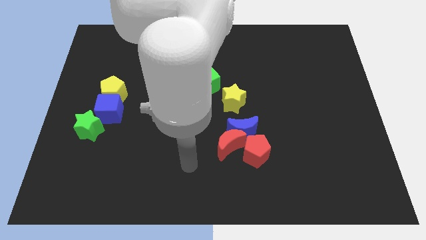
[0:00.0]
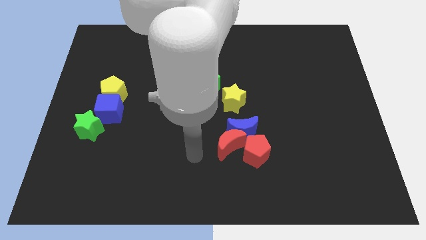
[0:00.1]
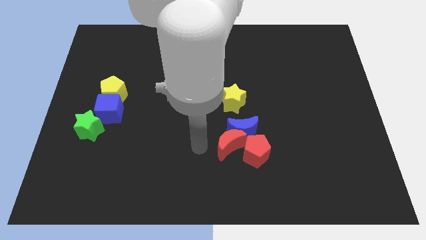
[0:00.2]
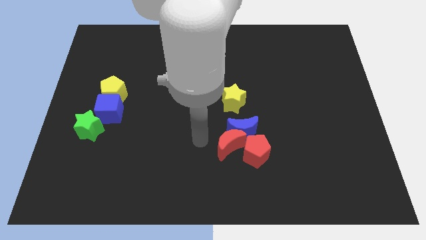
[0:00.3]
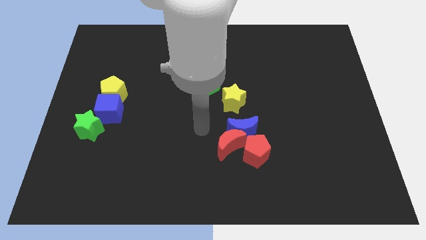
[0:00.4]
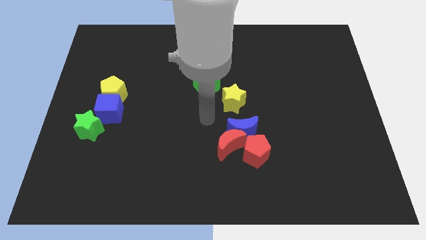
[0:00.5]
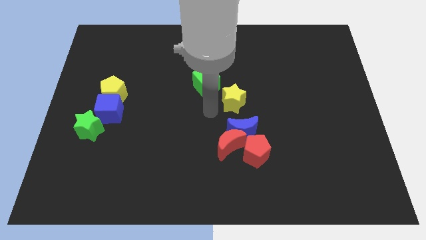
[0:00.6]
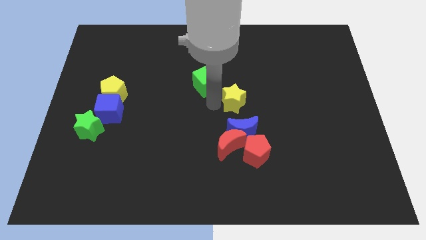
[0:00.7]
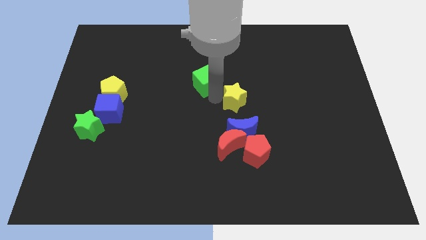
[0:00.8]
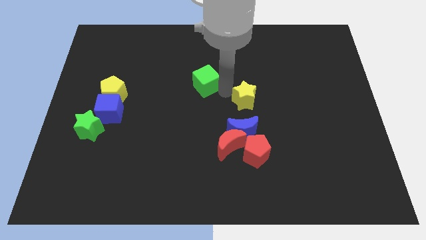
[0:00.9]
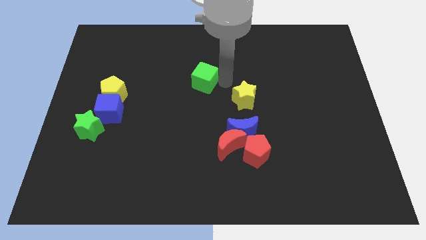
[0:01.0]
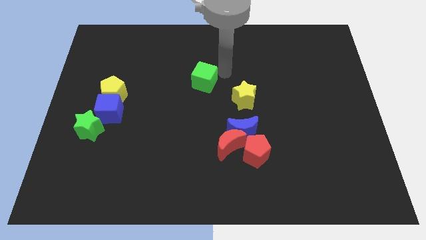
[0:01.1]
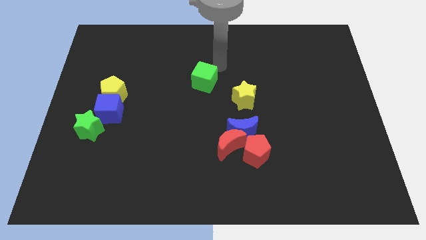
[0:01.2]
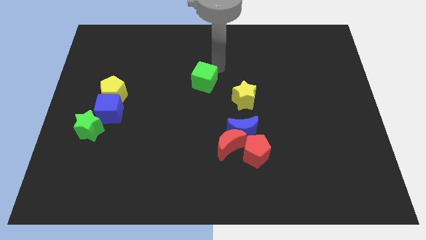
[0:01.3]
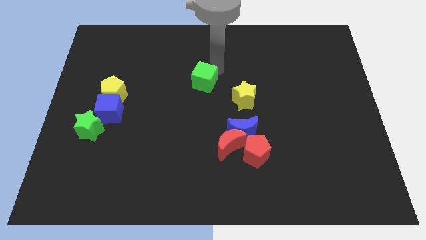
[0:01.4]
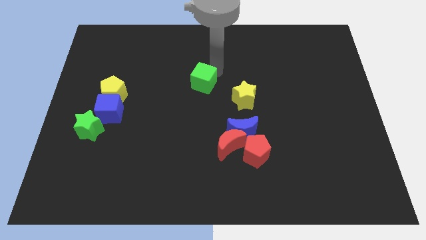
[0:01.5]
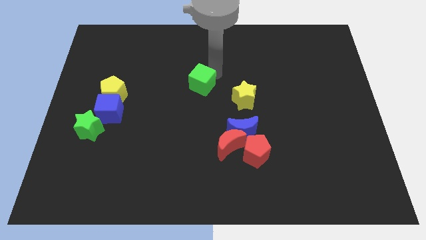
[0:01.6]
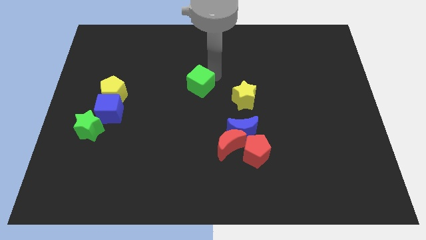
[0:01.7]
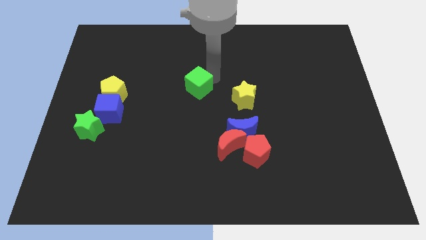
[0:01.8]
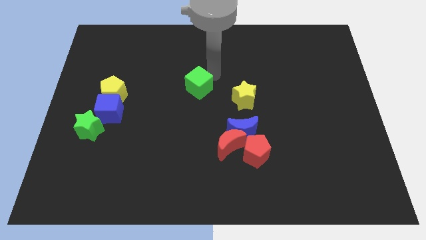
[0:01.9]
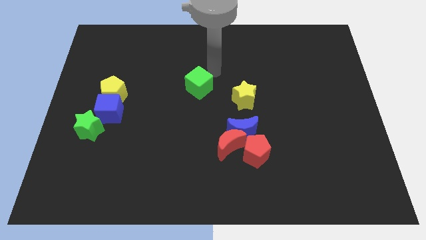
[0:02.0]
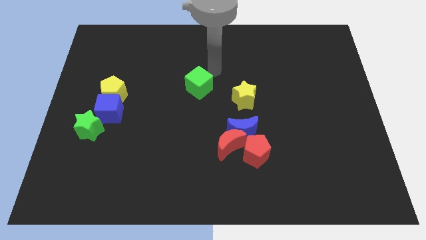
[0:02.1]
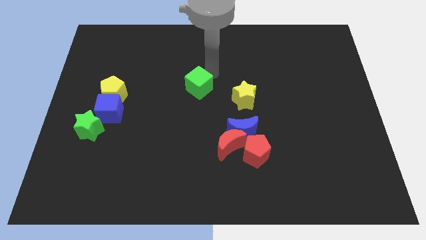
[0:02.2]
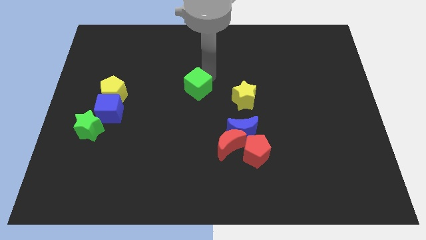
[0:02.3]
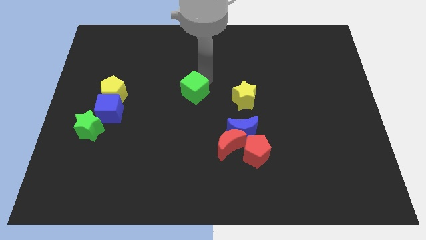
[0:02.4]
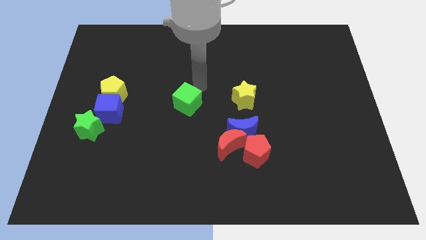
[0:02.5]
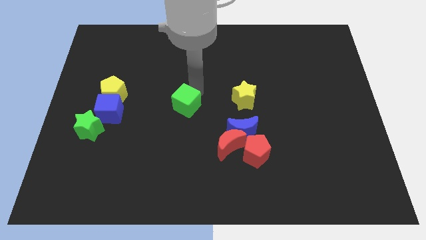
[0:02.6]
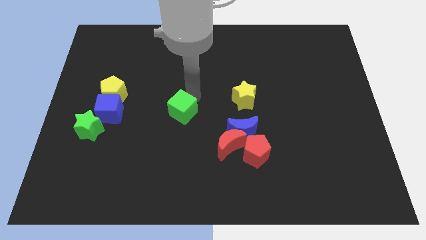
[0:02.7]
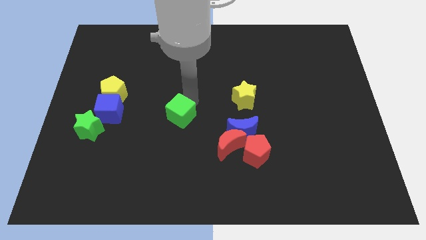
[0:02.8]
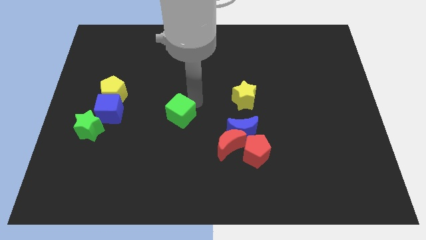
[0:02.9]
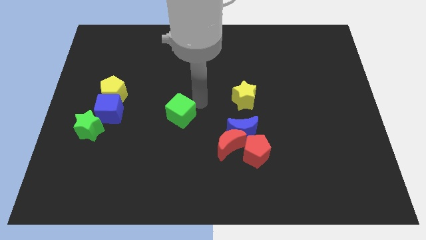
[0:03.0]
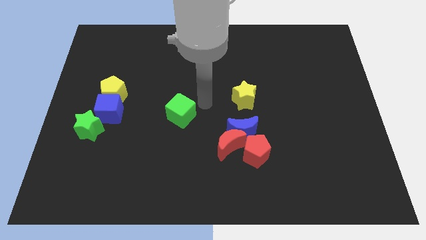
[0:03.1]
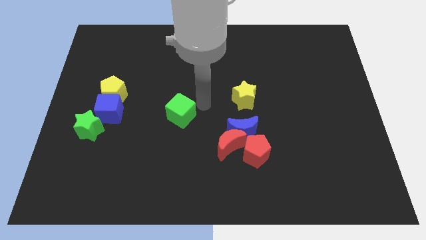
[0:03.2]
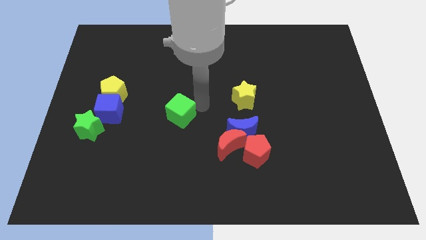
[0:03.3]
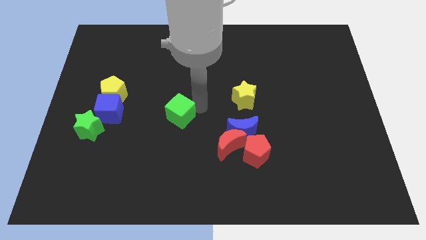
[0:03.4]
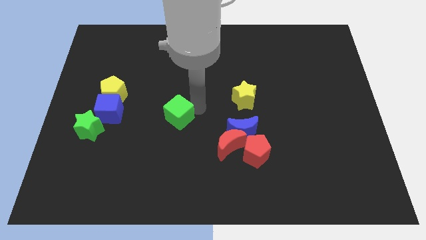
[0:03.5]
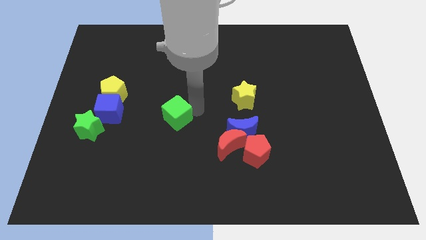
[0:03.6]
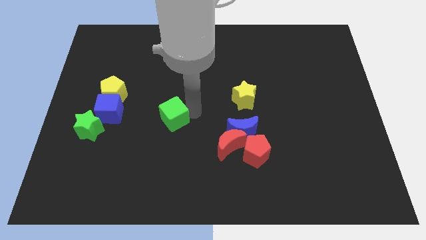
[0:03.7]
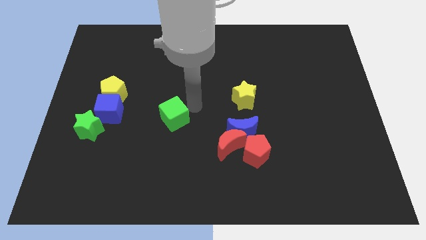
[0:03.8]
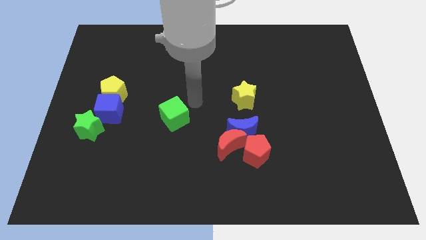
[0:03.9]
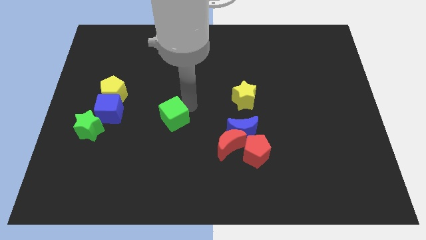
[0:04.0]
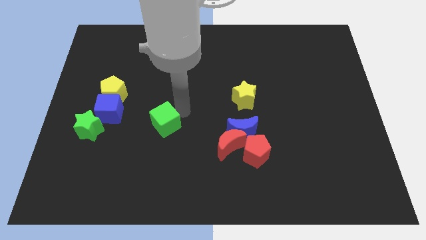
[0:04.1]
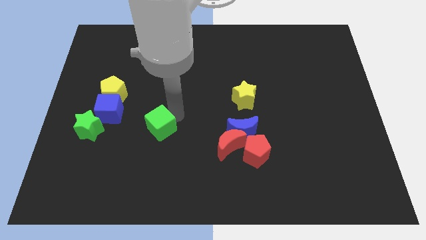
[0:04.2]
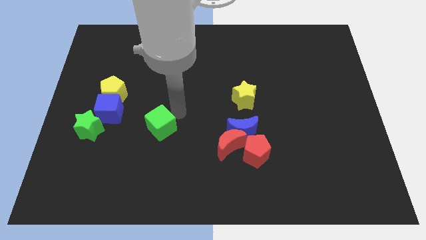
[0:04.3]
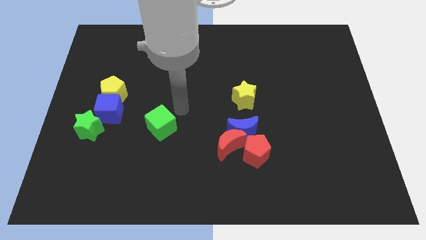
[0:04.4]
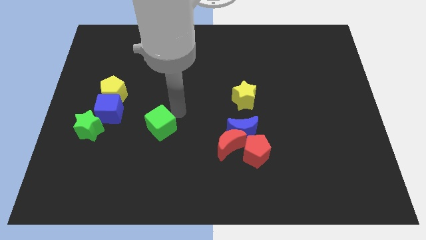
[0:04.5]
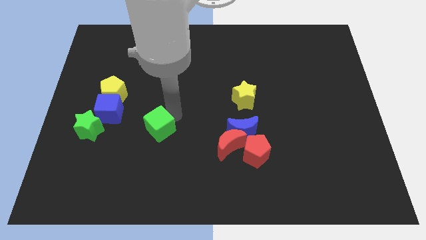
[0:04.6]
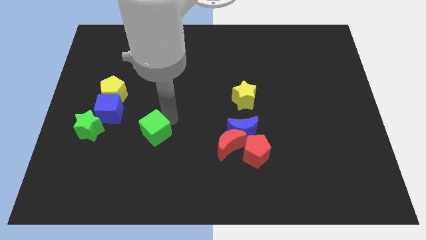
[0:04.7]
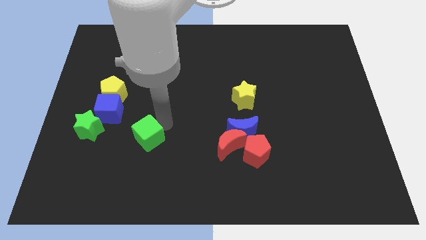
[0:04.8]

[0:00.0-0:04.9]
push the green cube diagonally down and left

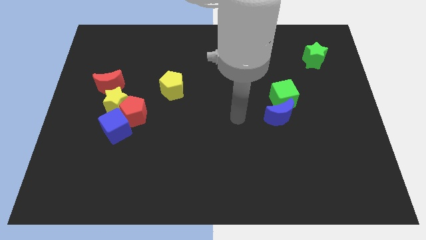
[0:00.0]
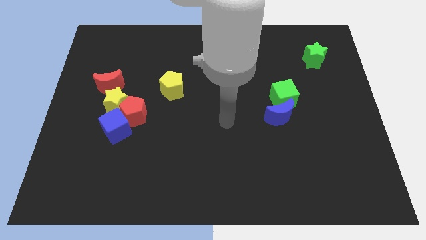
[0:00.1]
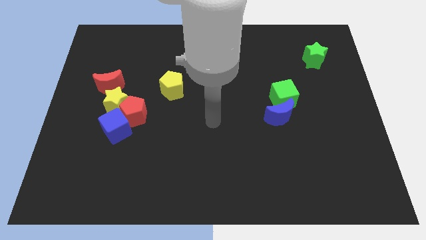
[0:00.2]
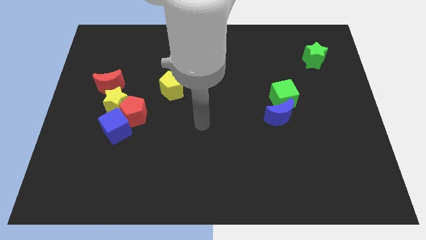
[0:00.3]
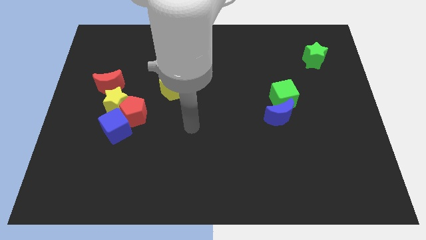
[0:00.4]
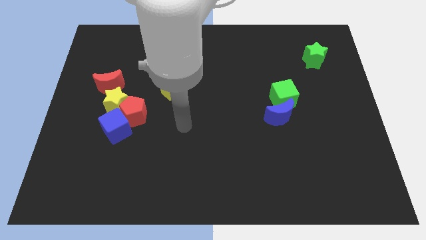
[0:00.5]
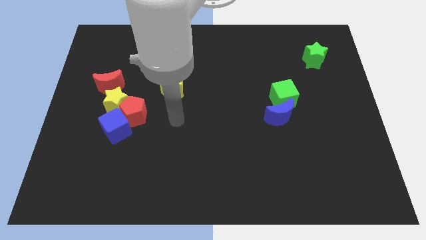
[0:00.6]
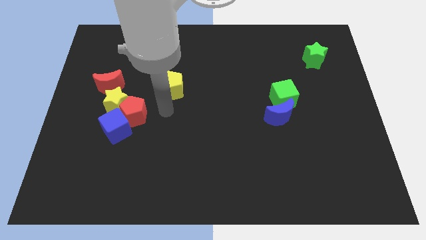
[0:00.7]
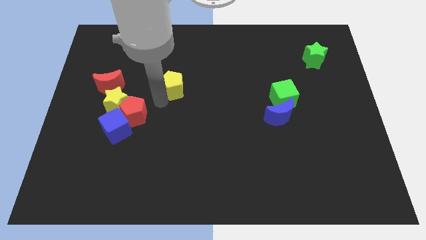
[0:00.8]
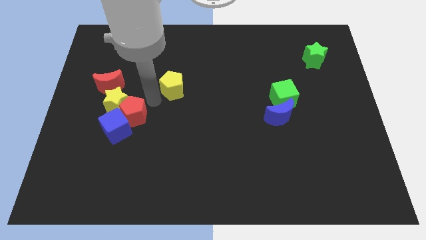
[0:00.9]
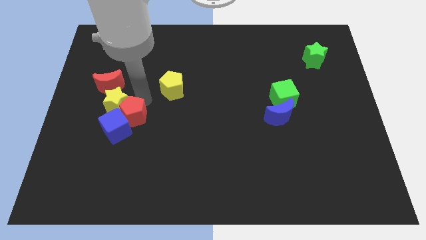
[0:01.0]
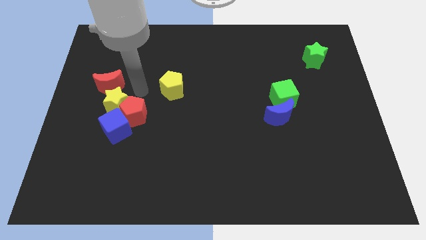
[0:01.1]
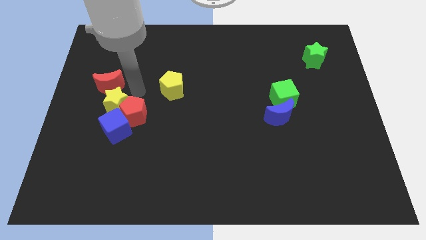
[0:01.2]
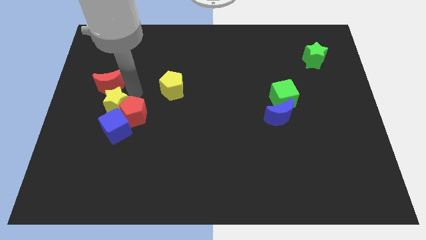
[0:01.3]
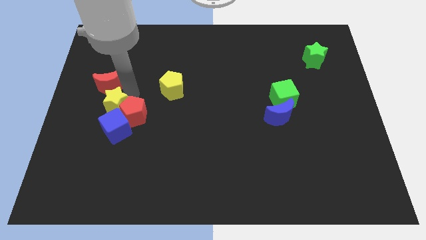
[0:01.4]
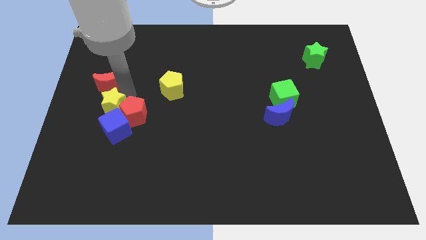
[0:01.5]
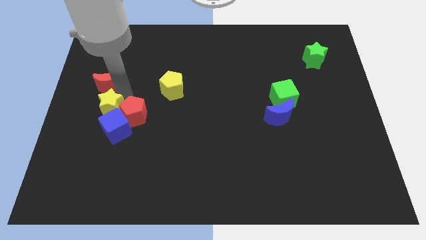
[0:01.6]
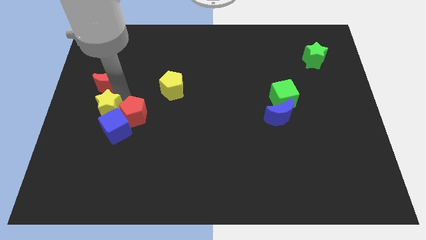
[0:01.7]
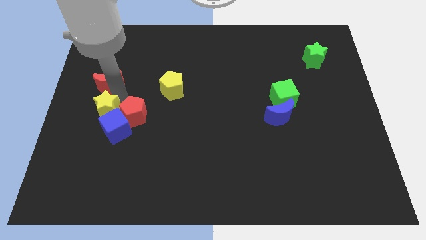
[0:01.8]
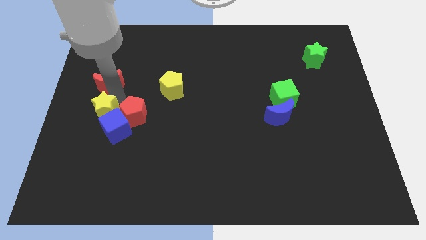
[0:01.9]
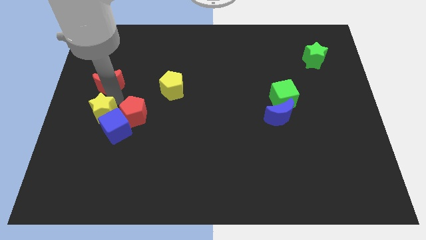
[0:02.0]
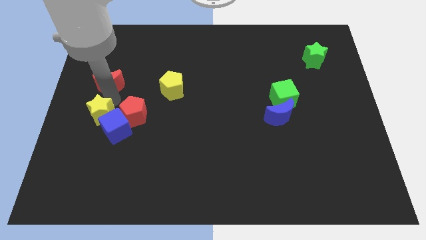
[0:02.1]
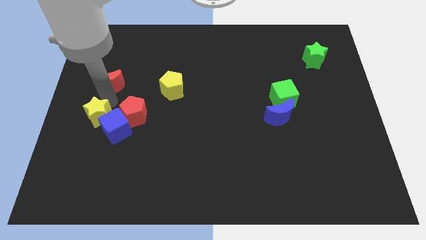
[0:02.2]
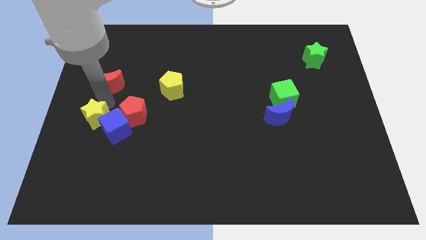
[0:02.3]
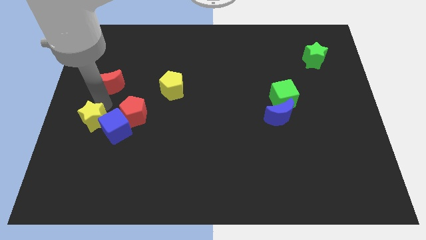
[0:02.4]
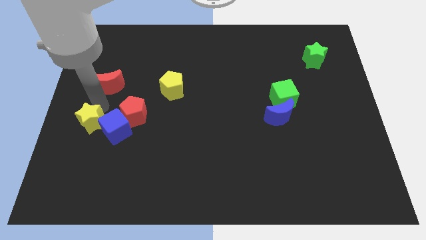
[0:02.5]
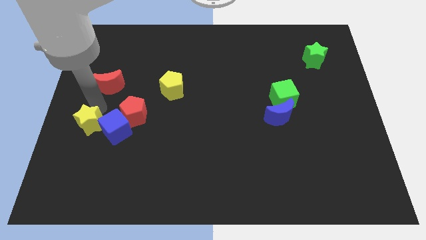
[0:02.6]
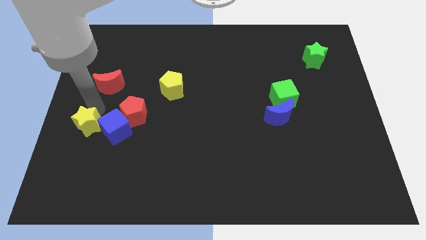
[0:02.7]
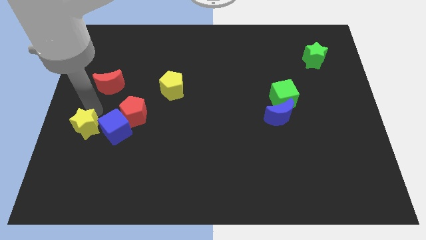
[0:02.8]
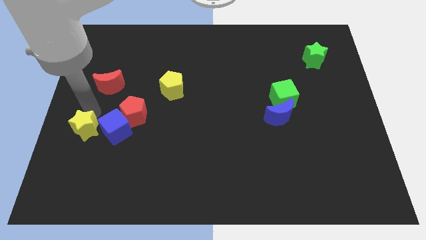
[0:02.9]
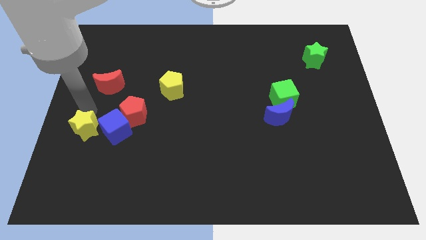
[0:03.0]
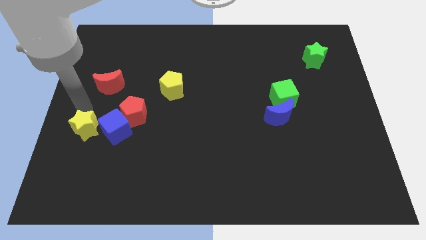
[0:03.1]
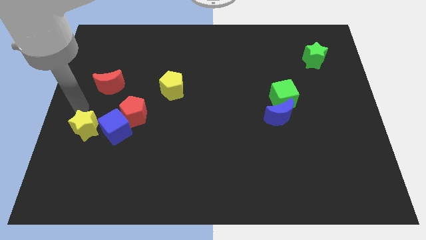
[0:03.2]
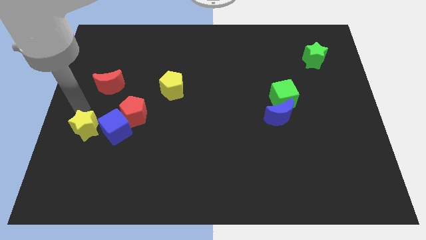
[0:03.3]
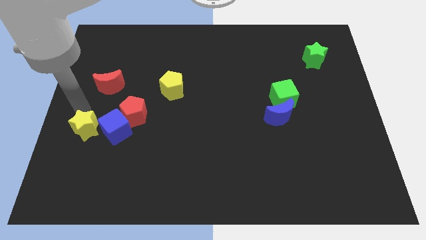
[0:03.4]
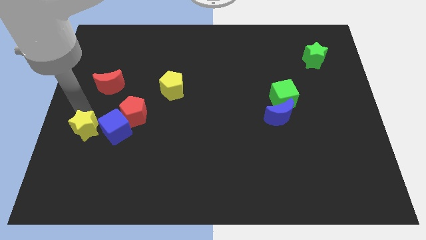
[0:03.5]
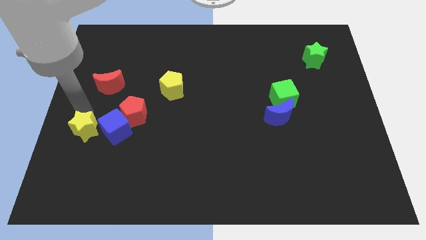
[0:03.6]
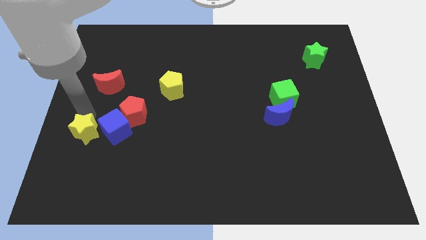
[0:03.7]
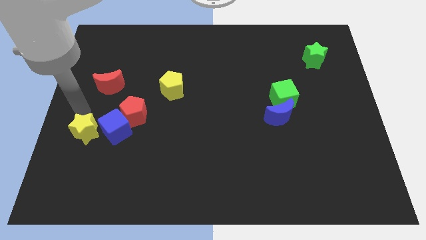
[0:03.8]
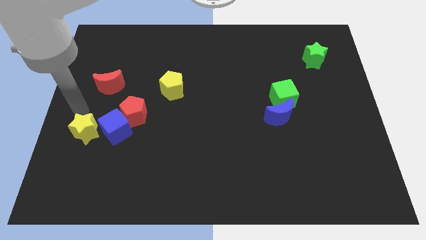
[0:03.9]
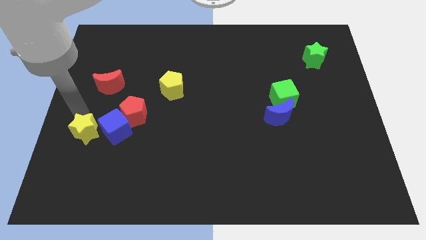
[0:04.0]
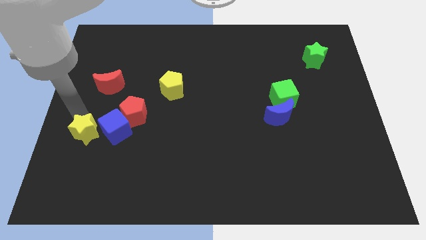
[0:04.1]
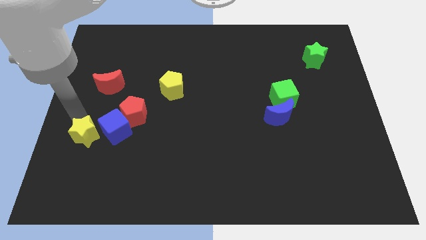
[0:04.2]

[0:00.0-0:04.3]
slide the yellow star down a little
